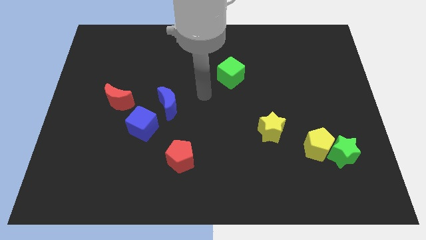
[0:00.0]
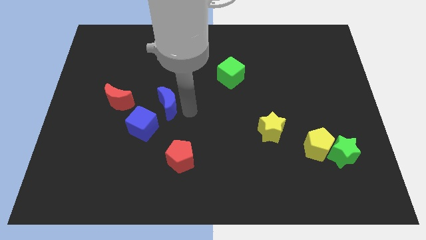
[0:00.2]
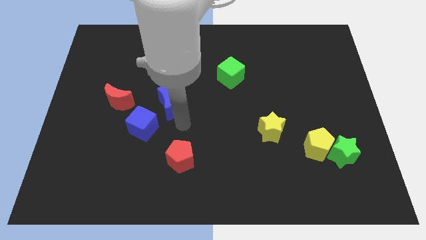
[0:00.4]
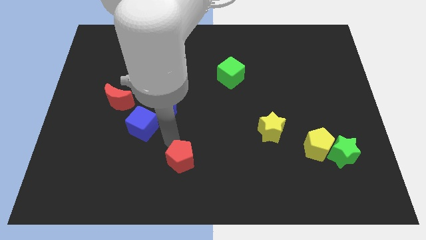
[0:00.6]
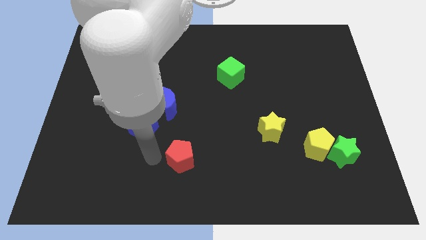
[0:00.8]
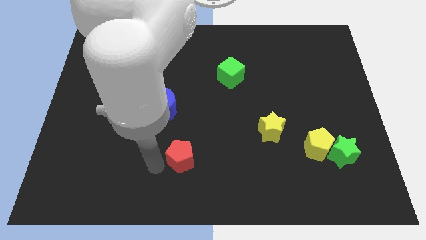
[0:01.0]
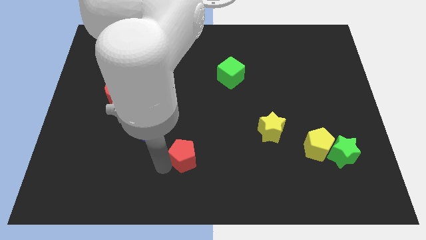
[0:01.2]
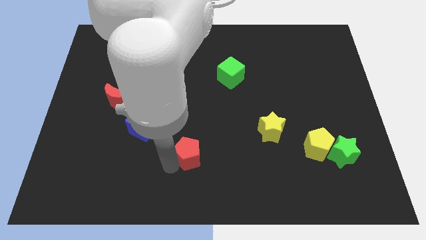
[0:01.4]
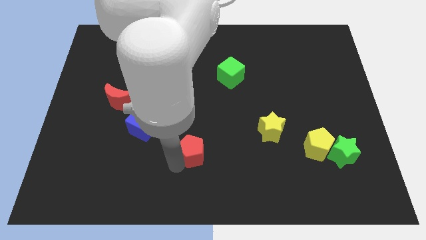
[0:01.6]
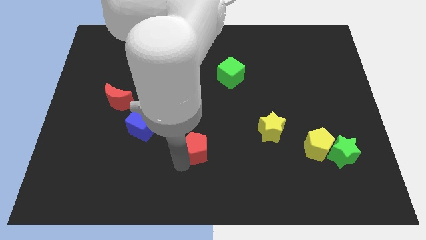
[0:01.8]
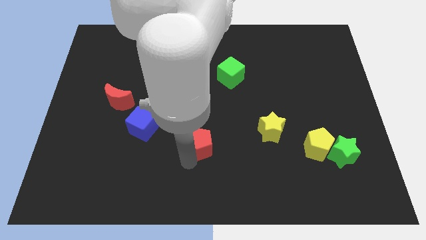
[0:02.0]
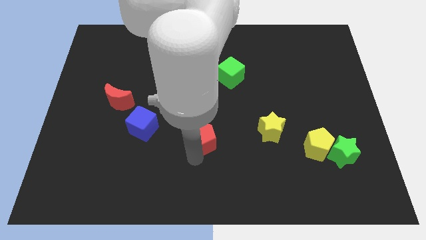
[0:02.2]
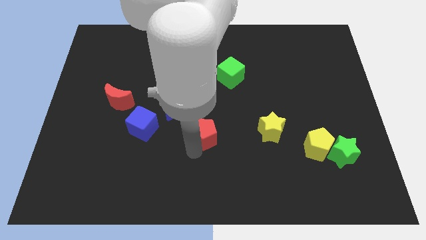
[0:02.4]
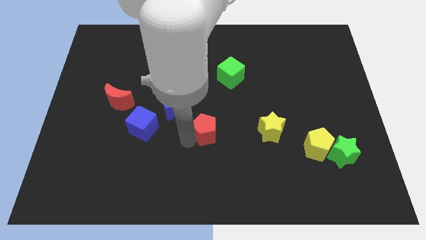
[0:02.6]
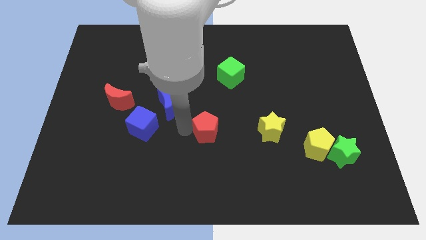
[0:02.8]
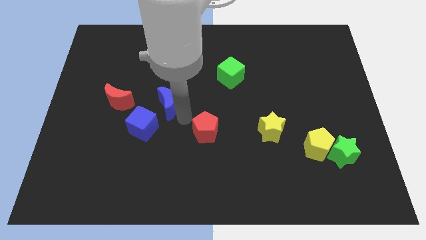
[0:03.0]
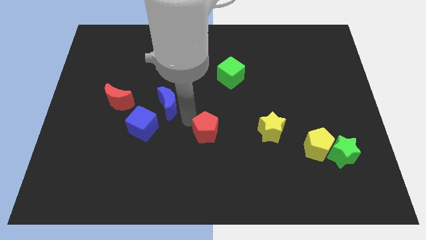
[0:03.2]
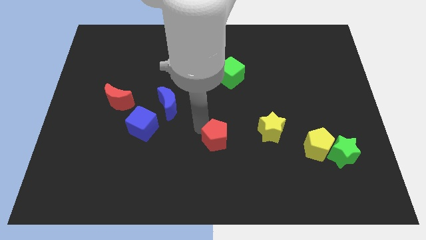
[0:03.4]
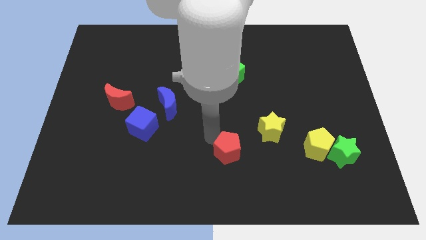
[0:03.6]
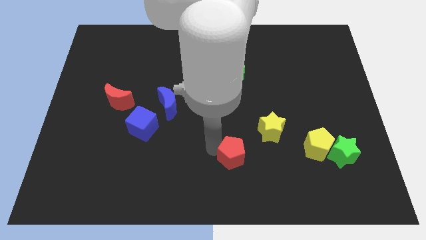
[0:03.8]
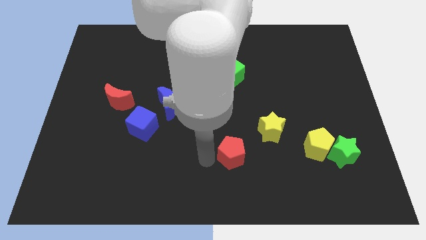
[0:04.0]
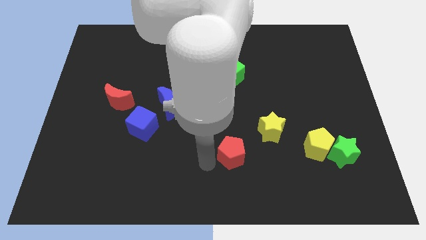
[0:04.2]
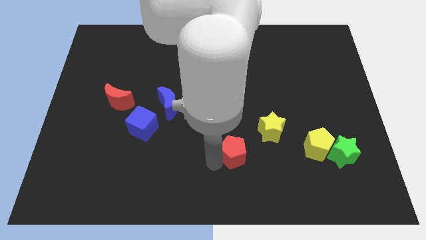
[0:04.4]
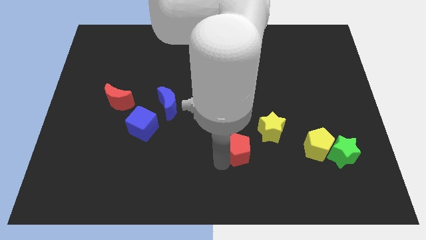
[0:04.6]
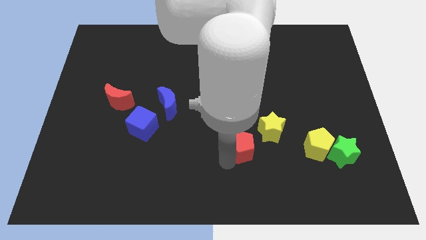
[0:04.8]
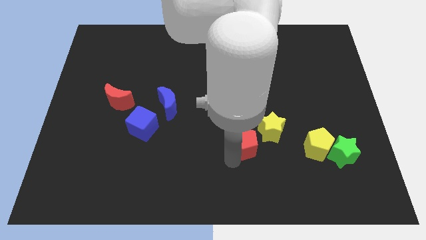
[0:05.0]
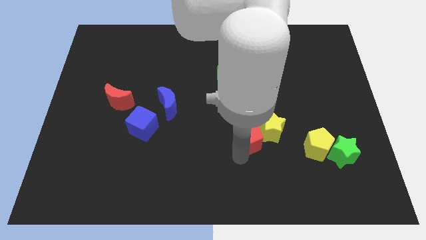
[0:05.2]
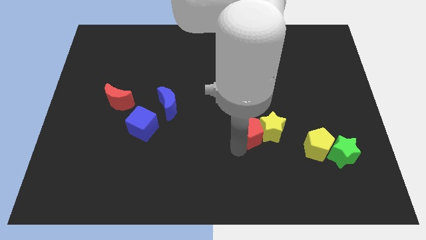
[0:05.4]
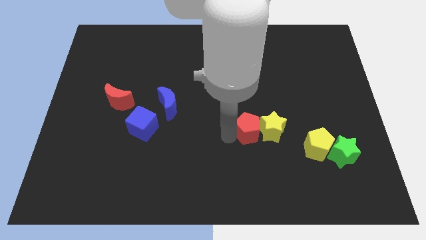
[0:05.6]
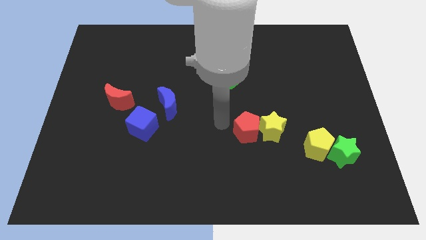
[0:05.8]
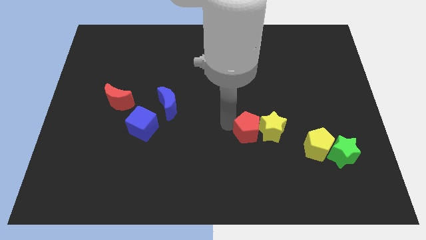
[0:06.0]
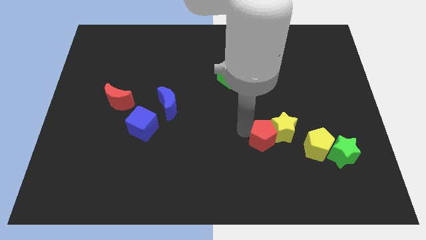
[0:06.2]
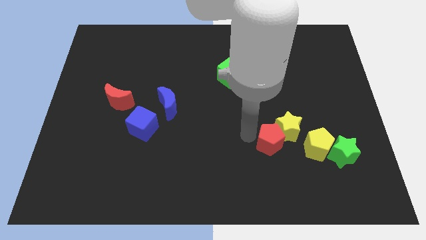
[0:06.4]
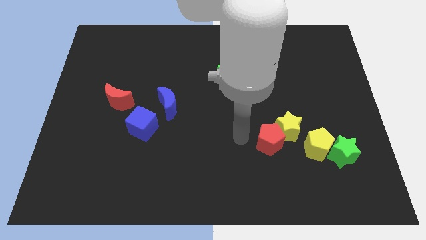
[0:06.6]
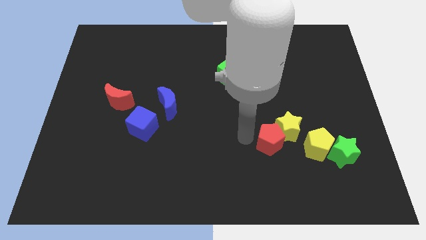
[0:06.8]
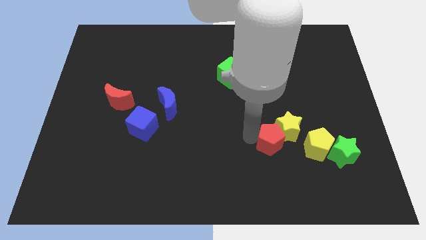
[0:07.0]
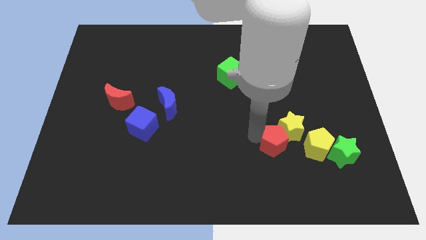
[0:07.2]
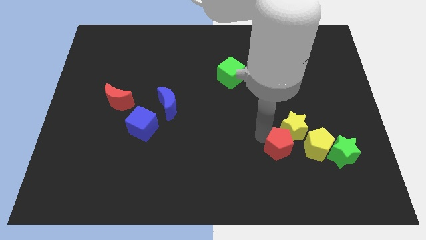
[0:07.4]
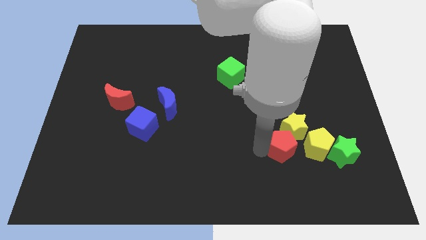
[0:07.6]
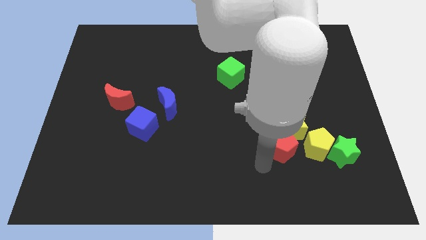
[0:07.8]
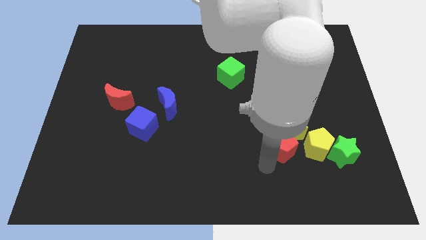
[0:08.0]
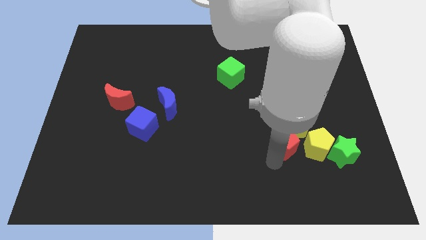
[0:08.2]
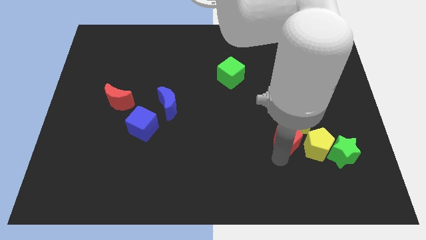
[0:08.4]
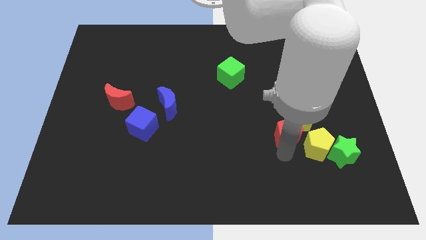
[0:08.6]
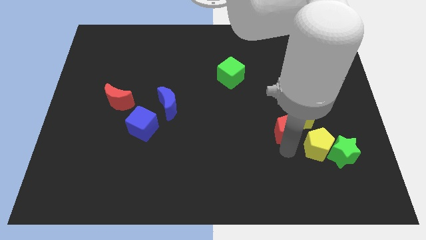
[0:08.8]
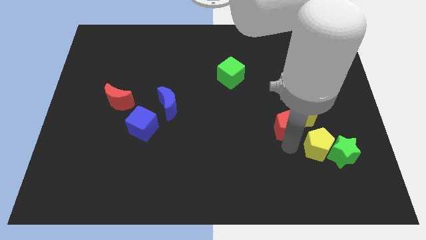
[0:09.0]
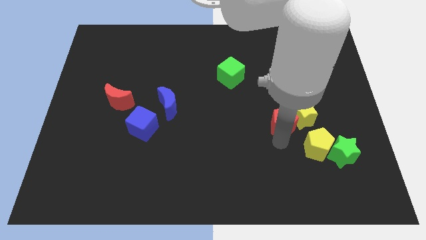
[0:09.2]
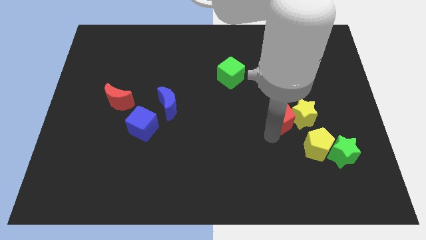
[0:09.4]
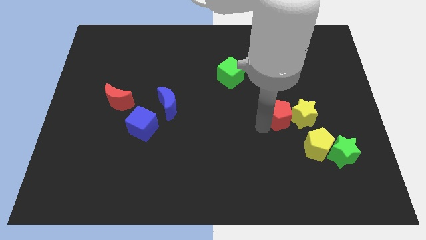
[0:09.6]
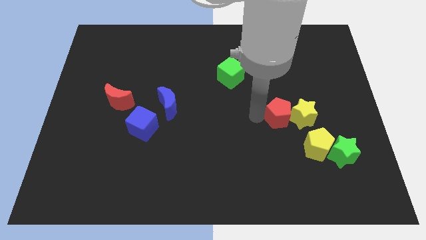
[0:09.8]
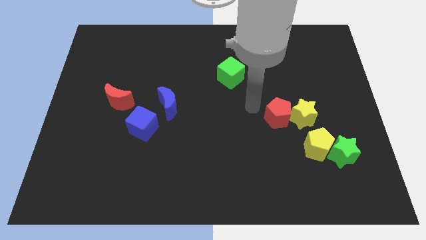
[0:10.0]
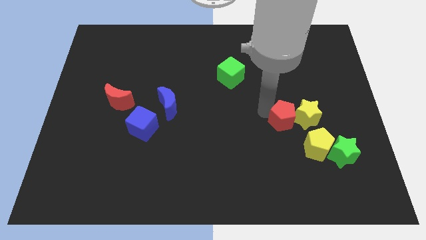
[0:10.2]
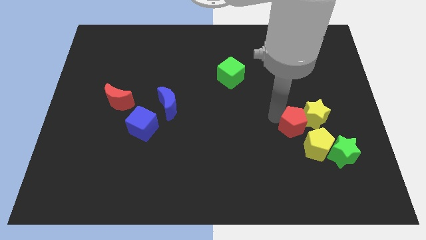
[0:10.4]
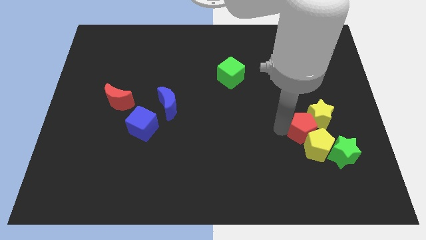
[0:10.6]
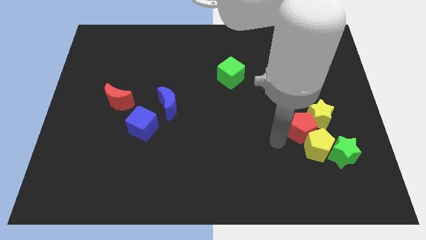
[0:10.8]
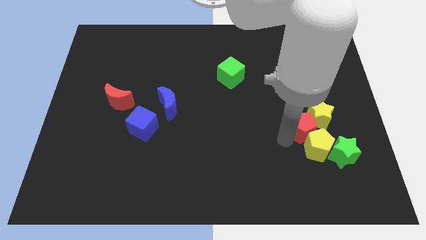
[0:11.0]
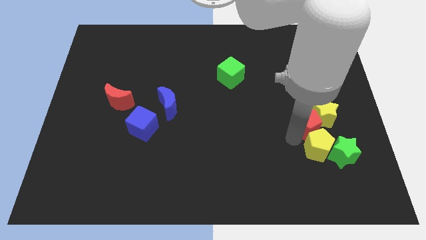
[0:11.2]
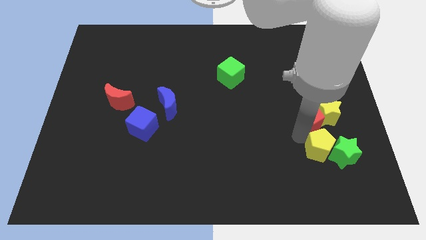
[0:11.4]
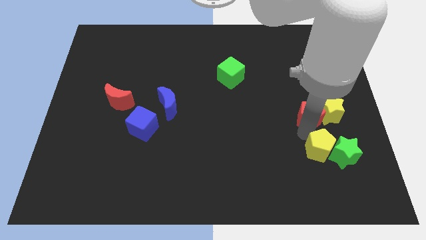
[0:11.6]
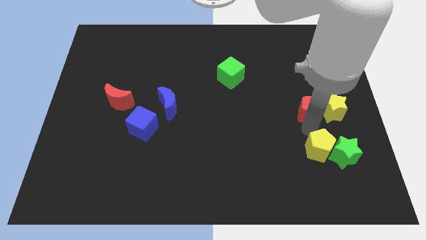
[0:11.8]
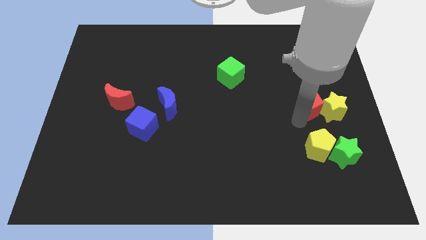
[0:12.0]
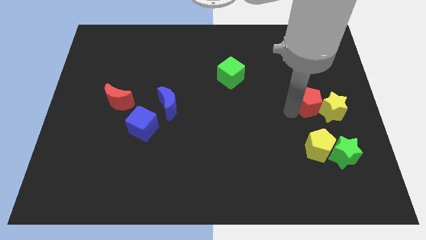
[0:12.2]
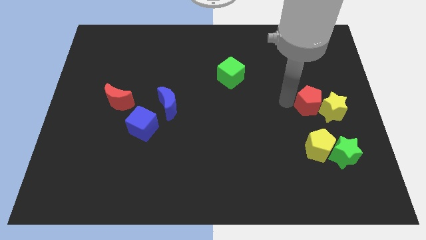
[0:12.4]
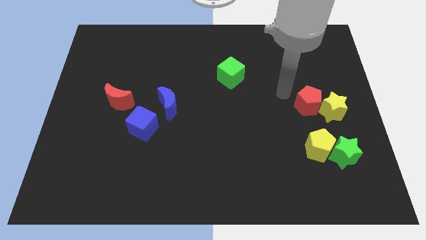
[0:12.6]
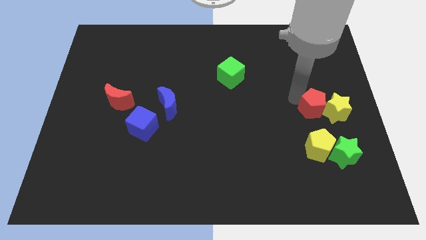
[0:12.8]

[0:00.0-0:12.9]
push the red pentagon above the green star
